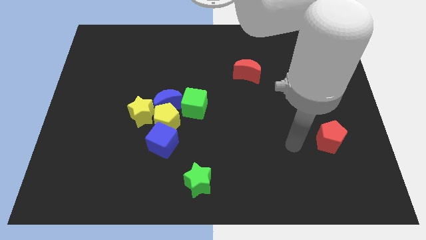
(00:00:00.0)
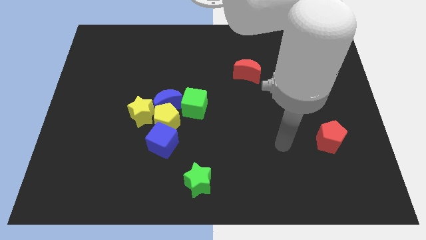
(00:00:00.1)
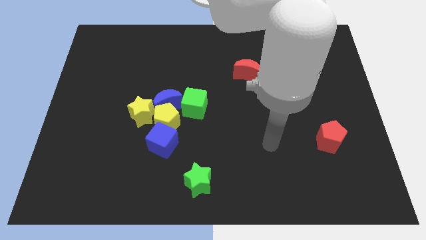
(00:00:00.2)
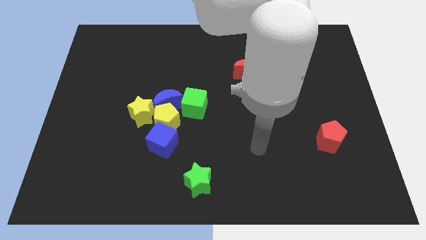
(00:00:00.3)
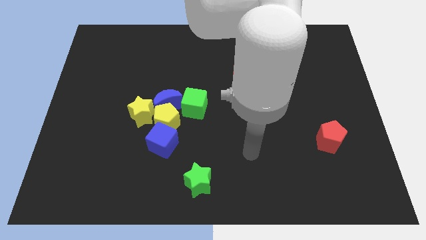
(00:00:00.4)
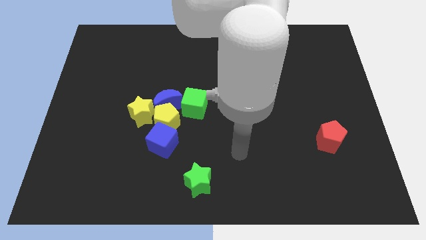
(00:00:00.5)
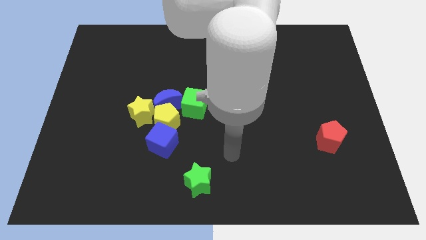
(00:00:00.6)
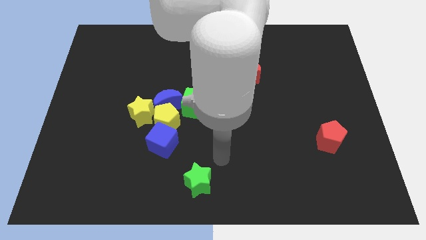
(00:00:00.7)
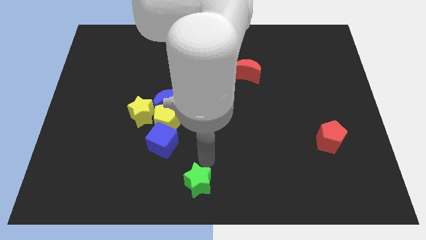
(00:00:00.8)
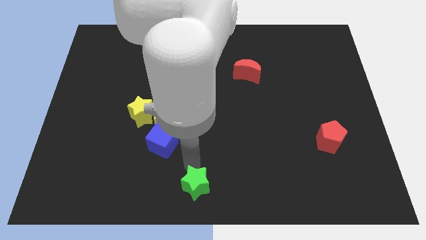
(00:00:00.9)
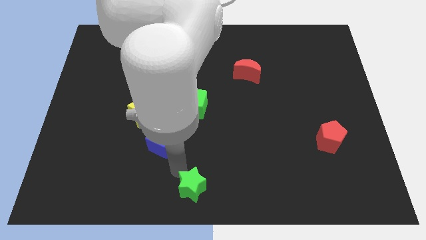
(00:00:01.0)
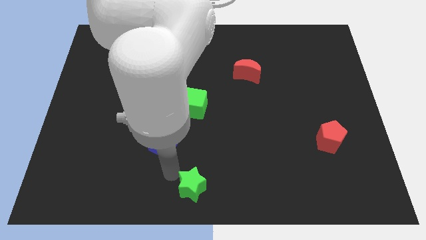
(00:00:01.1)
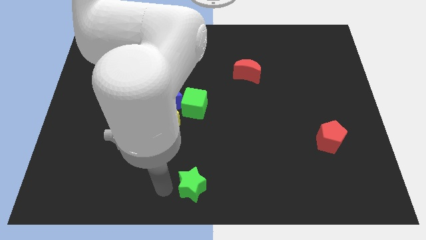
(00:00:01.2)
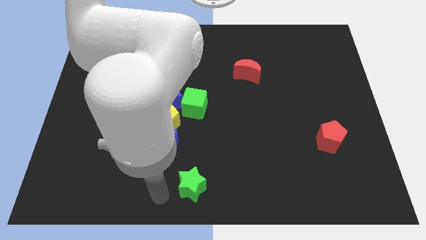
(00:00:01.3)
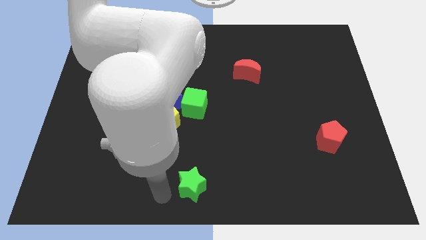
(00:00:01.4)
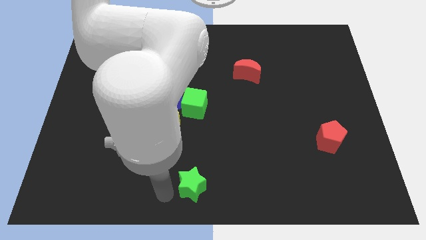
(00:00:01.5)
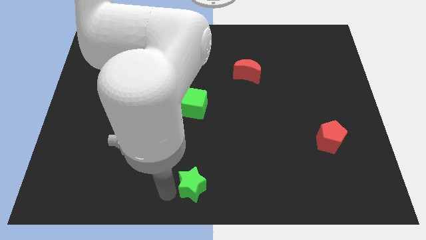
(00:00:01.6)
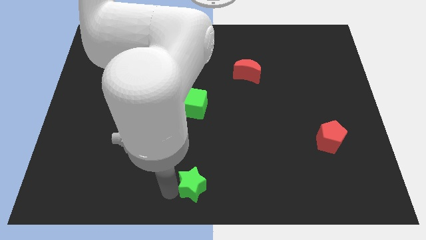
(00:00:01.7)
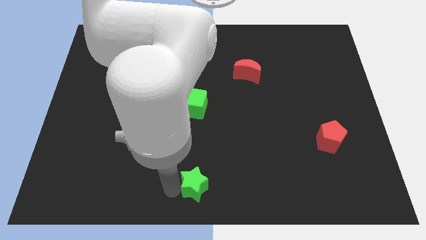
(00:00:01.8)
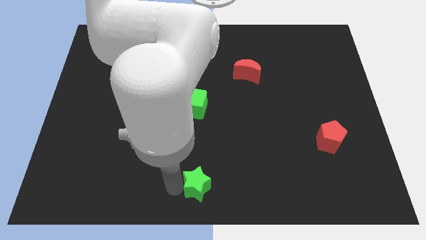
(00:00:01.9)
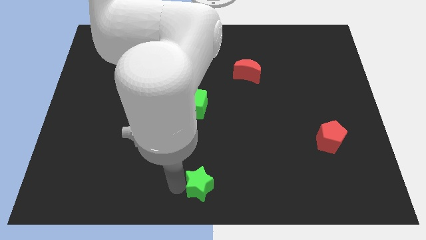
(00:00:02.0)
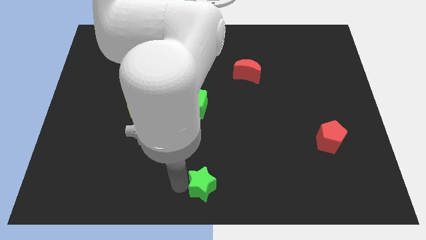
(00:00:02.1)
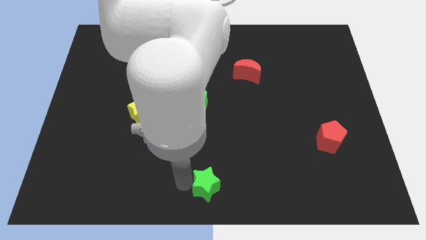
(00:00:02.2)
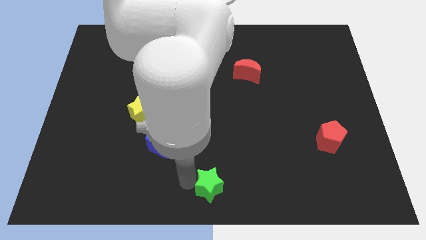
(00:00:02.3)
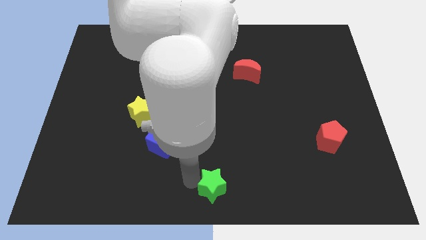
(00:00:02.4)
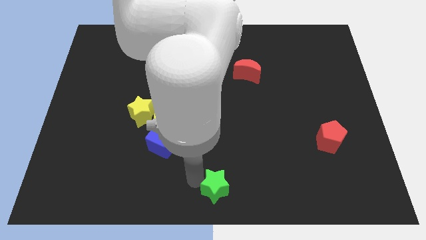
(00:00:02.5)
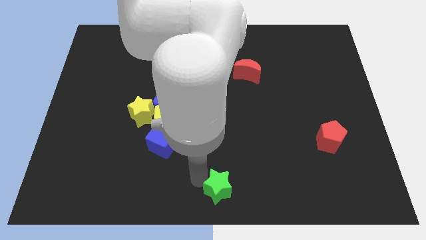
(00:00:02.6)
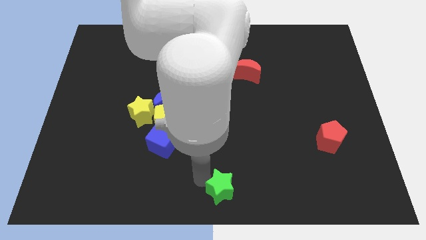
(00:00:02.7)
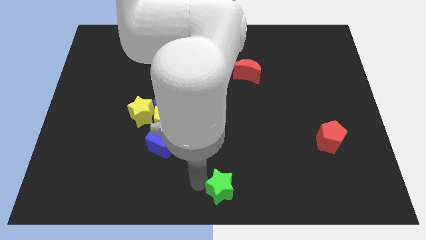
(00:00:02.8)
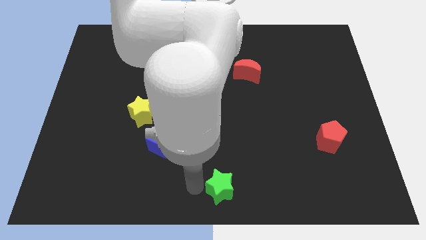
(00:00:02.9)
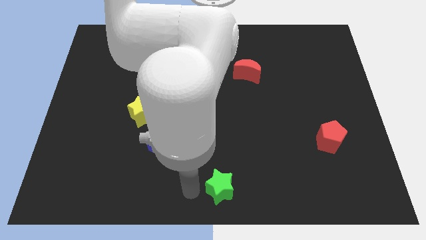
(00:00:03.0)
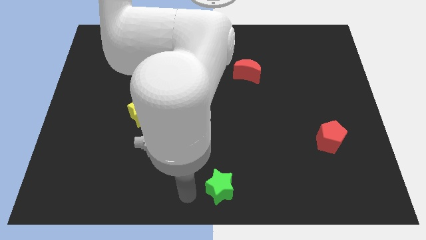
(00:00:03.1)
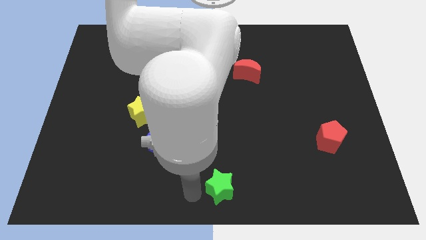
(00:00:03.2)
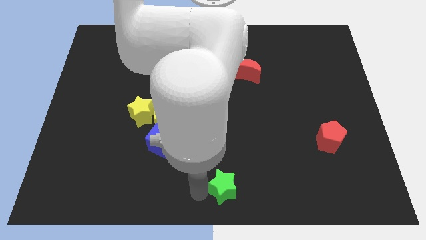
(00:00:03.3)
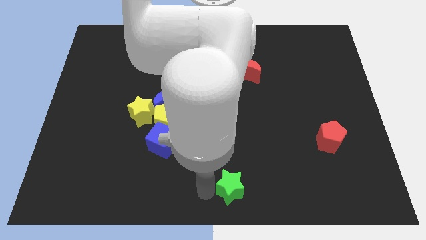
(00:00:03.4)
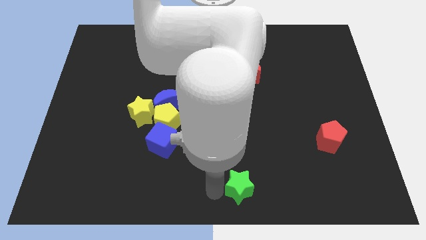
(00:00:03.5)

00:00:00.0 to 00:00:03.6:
move the green star somewhat to the right

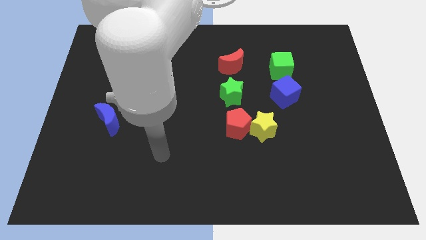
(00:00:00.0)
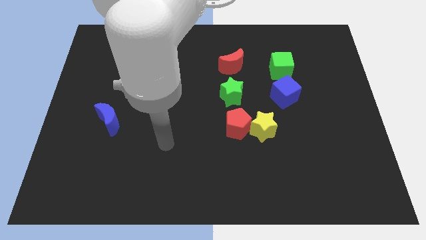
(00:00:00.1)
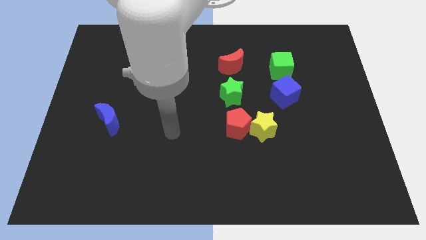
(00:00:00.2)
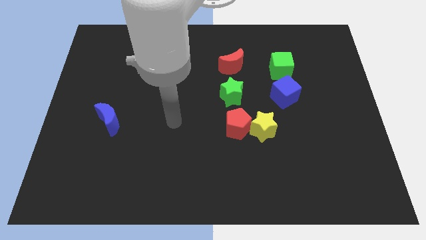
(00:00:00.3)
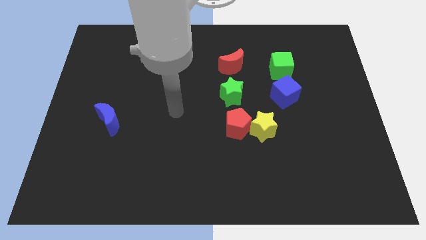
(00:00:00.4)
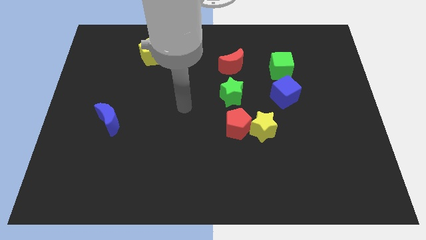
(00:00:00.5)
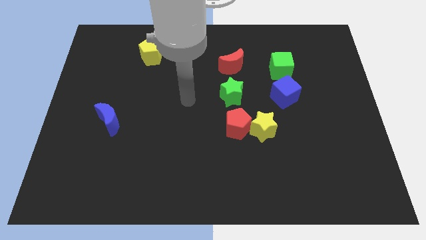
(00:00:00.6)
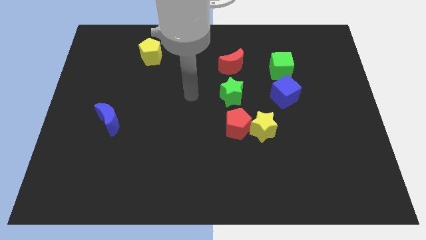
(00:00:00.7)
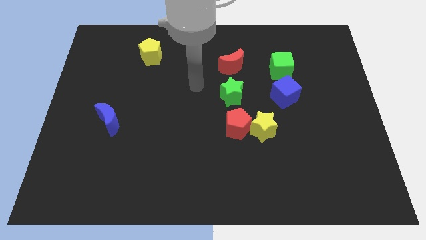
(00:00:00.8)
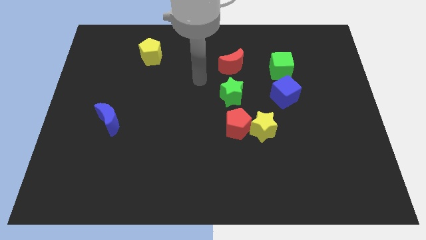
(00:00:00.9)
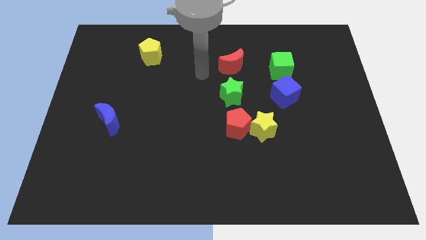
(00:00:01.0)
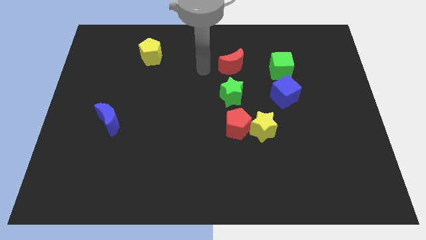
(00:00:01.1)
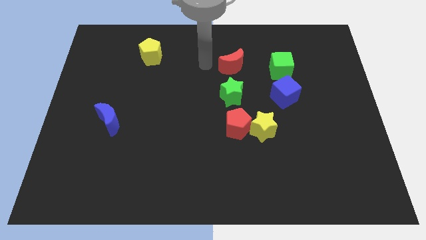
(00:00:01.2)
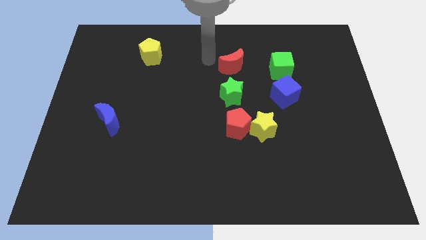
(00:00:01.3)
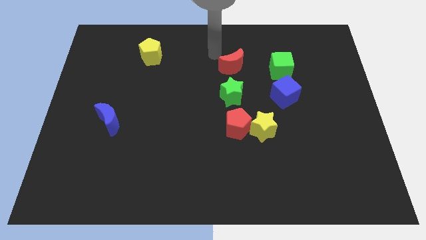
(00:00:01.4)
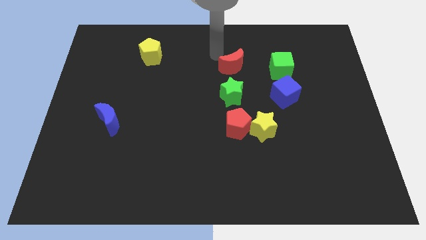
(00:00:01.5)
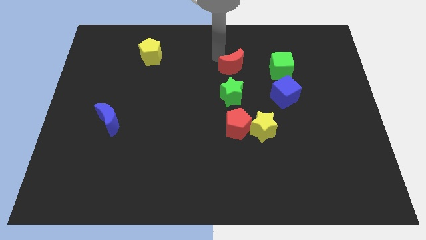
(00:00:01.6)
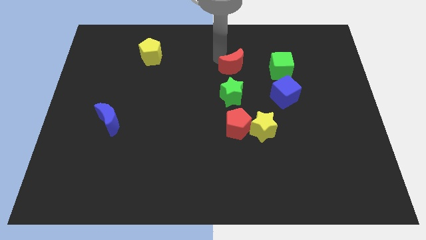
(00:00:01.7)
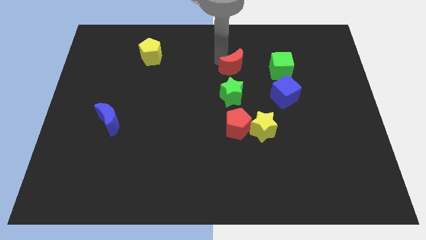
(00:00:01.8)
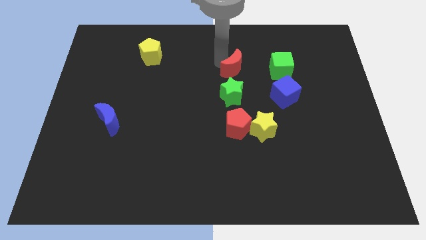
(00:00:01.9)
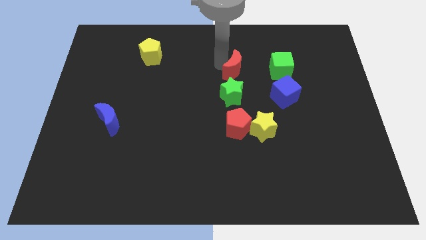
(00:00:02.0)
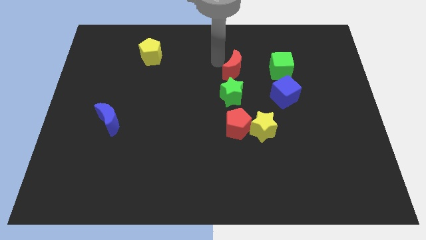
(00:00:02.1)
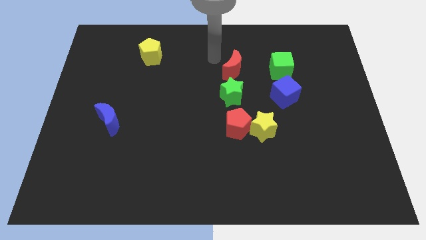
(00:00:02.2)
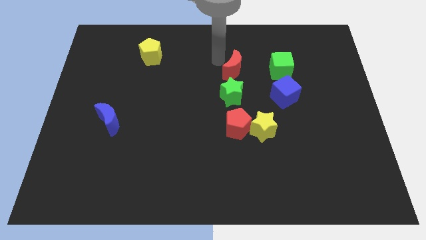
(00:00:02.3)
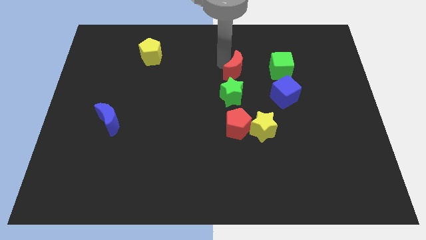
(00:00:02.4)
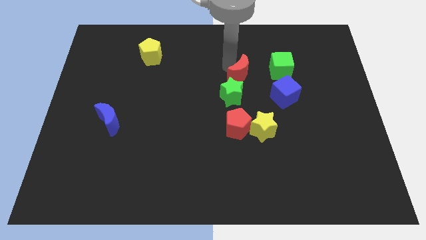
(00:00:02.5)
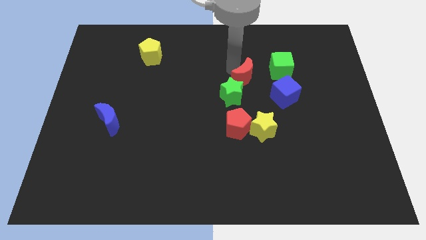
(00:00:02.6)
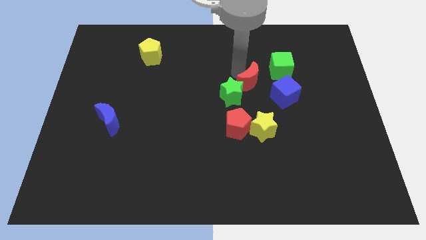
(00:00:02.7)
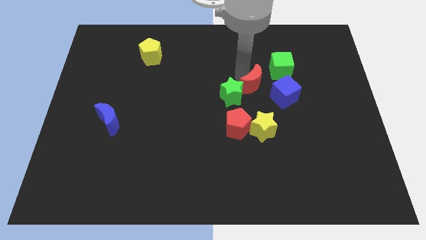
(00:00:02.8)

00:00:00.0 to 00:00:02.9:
push the red moon downwards and right a little bit

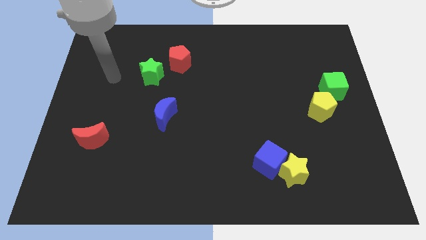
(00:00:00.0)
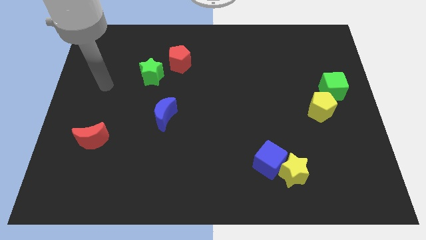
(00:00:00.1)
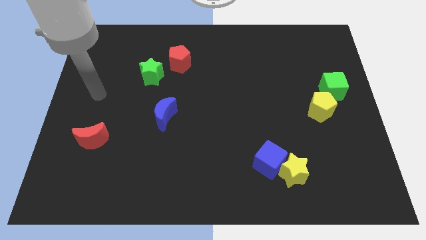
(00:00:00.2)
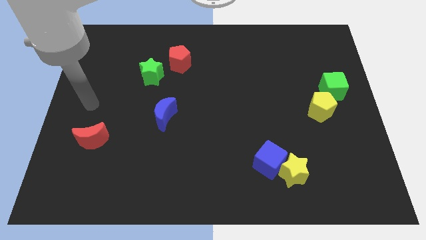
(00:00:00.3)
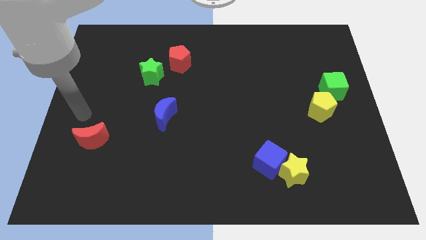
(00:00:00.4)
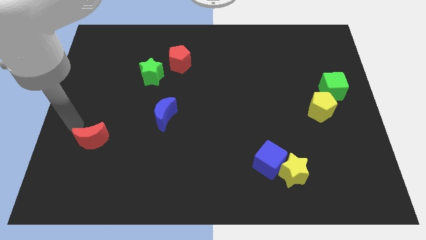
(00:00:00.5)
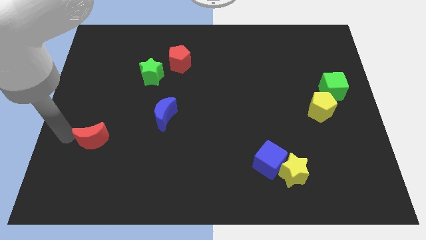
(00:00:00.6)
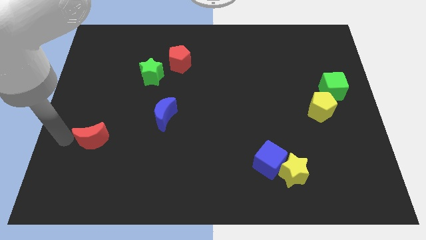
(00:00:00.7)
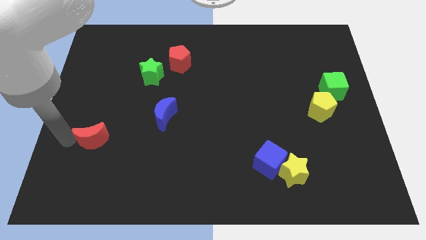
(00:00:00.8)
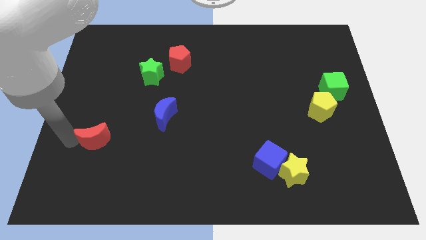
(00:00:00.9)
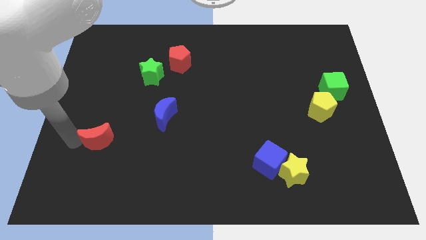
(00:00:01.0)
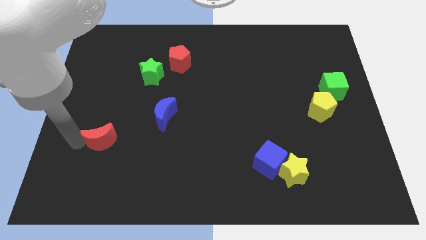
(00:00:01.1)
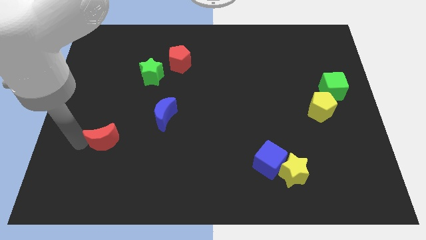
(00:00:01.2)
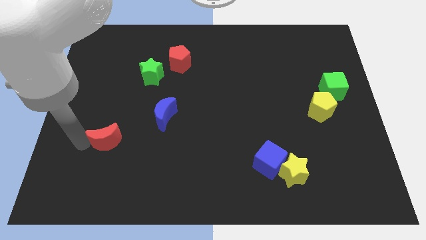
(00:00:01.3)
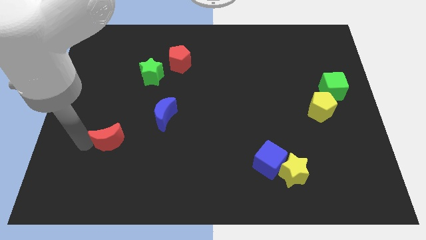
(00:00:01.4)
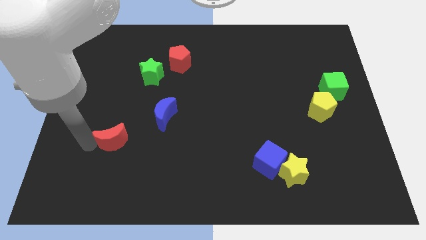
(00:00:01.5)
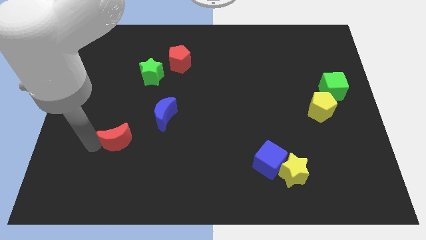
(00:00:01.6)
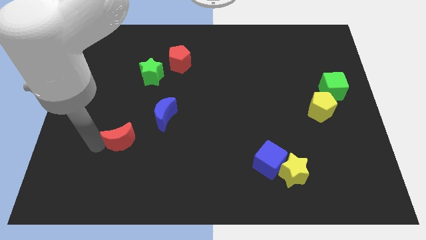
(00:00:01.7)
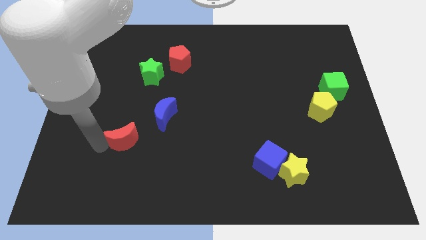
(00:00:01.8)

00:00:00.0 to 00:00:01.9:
push the red moon a bit right
